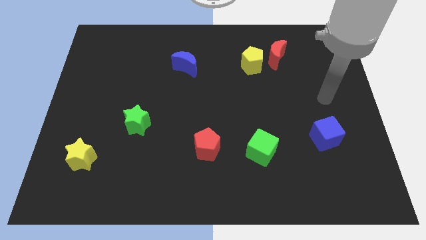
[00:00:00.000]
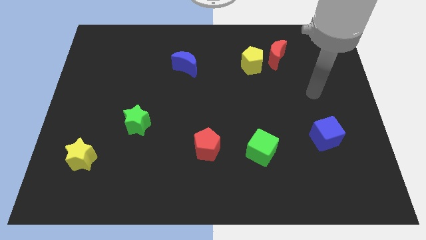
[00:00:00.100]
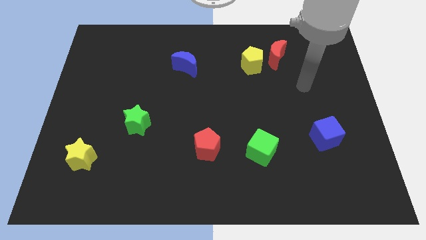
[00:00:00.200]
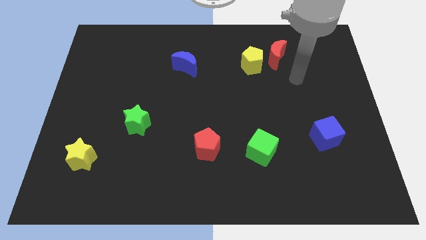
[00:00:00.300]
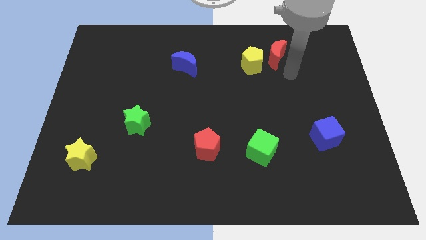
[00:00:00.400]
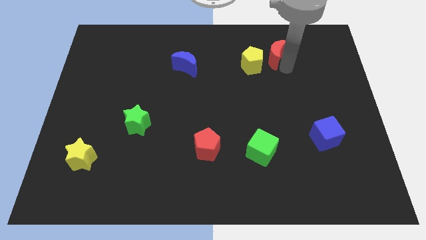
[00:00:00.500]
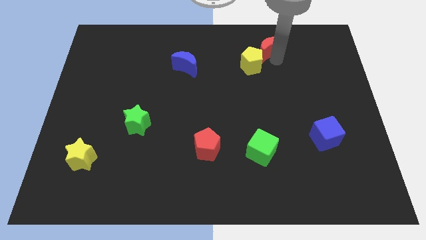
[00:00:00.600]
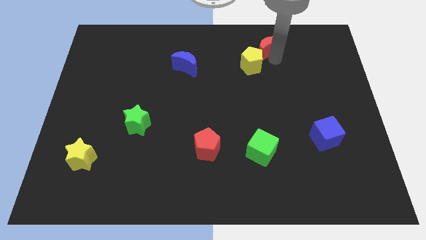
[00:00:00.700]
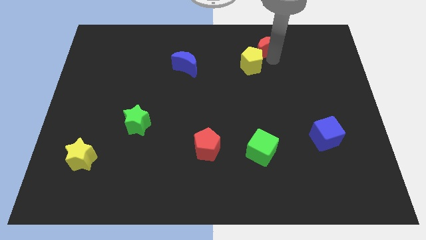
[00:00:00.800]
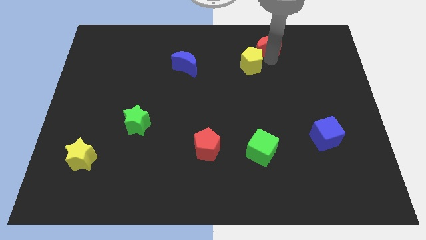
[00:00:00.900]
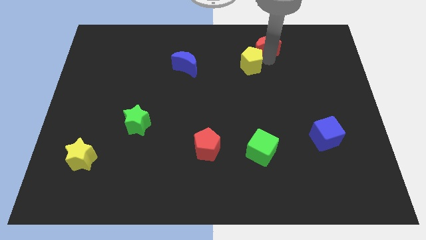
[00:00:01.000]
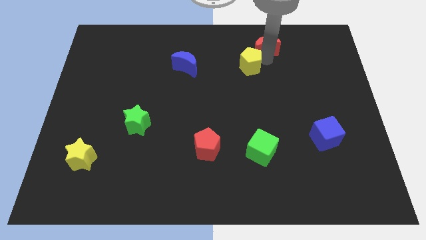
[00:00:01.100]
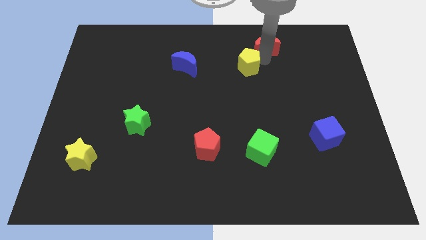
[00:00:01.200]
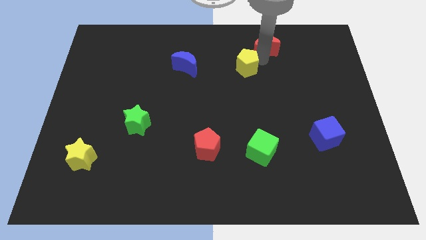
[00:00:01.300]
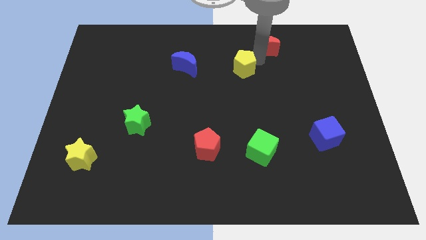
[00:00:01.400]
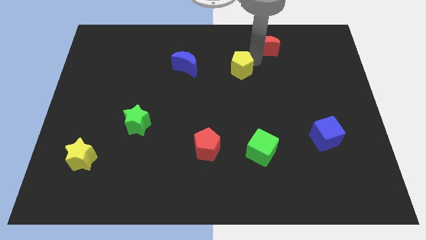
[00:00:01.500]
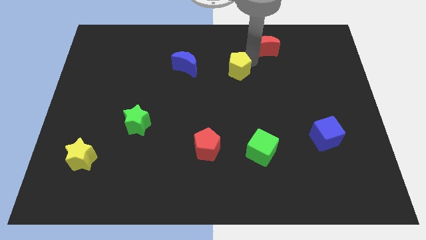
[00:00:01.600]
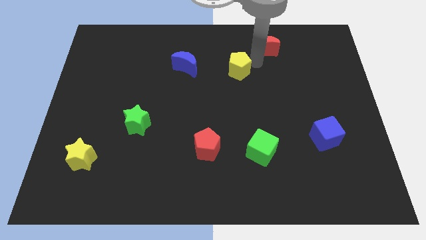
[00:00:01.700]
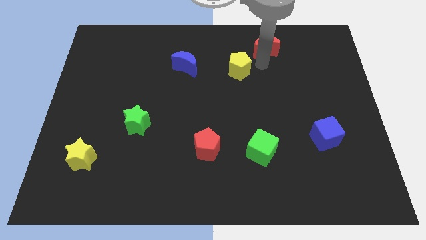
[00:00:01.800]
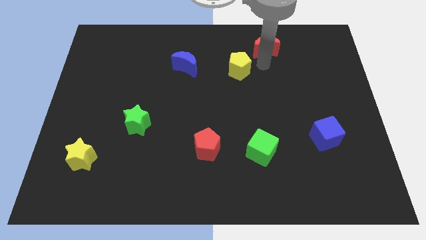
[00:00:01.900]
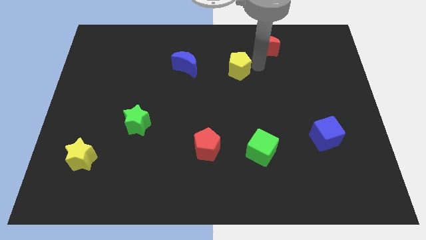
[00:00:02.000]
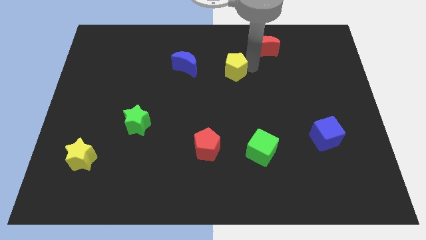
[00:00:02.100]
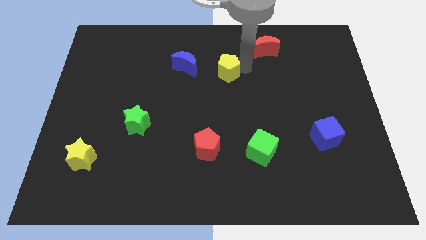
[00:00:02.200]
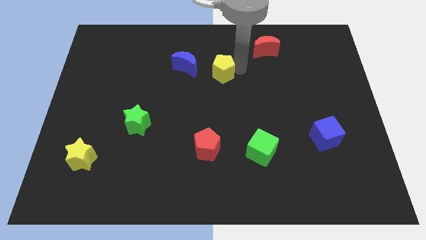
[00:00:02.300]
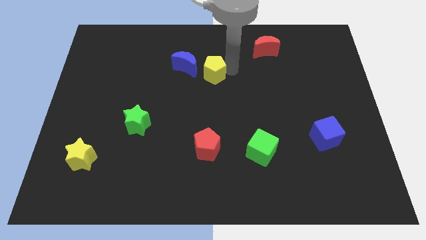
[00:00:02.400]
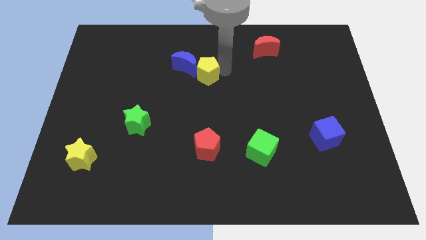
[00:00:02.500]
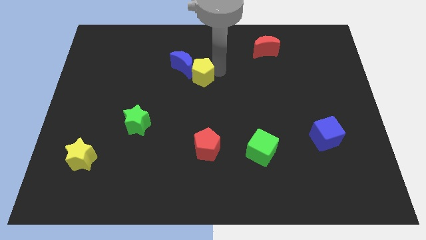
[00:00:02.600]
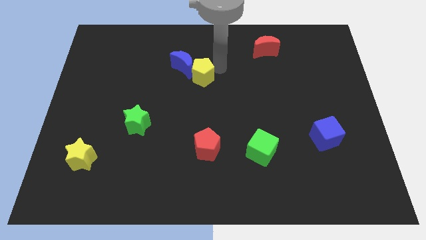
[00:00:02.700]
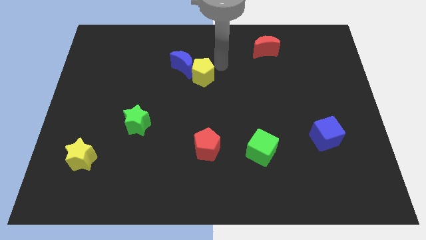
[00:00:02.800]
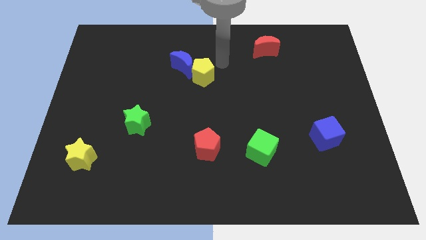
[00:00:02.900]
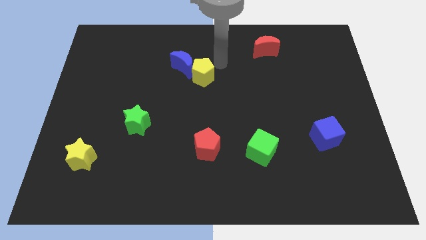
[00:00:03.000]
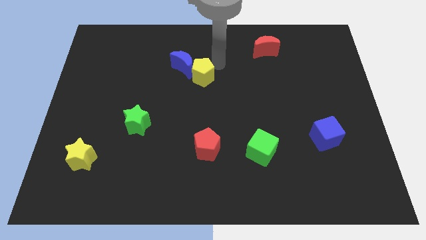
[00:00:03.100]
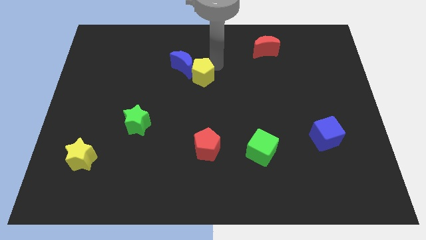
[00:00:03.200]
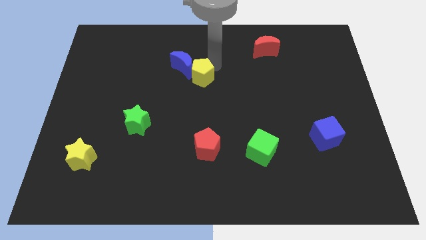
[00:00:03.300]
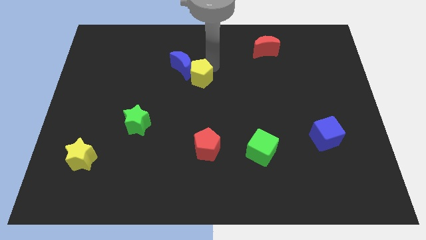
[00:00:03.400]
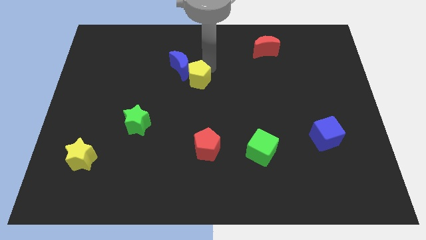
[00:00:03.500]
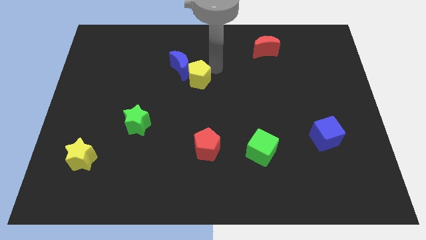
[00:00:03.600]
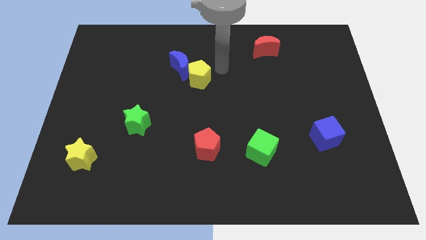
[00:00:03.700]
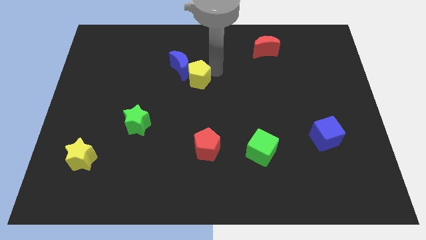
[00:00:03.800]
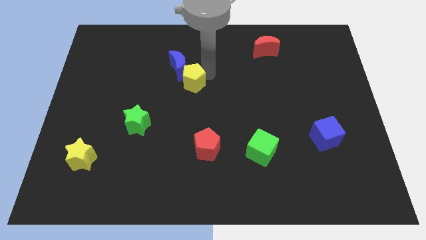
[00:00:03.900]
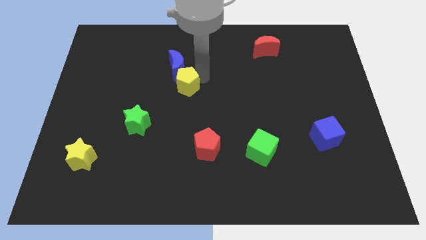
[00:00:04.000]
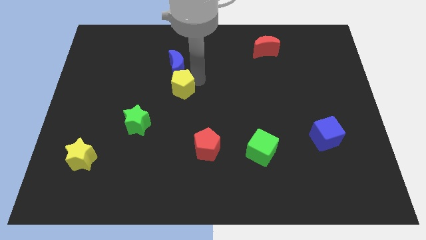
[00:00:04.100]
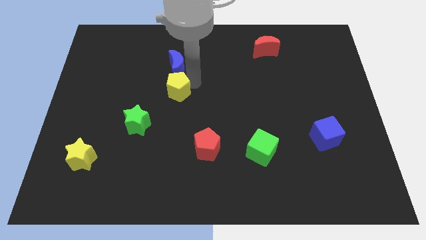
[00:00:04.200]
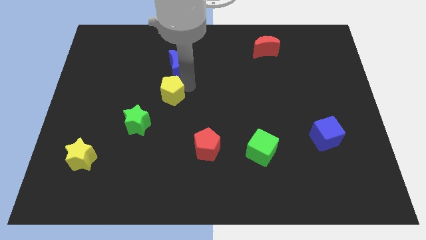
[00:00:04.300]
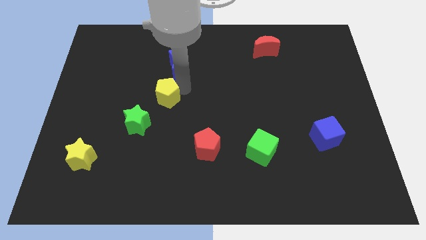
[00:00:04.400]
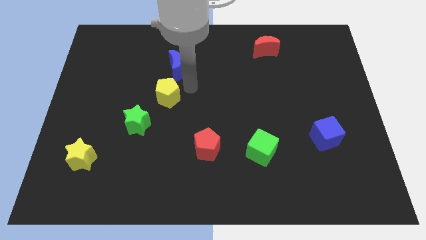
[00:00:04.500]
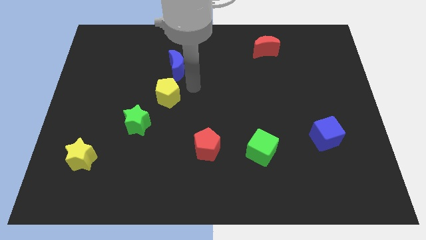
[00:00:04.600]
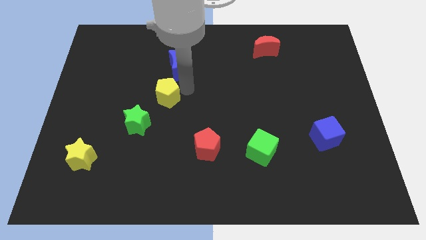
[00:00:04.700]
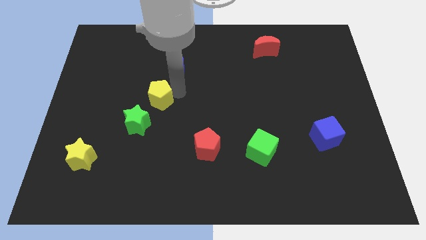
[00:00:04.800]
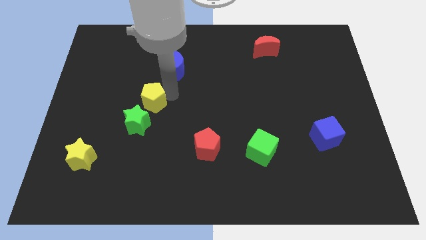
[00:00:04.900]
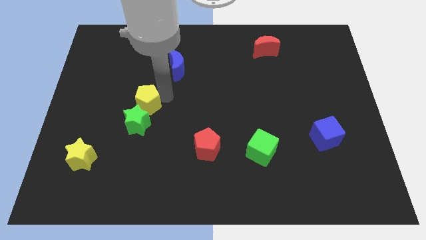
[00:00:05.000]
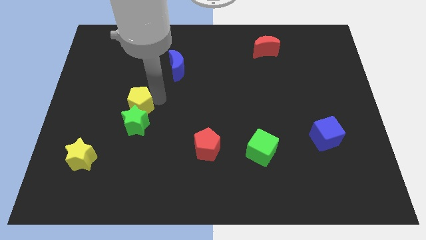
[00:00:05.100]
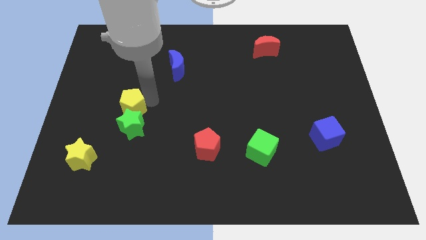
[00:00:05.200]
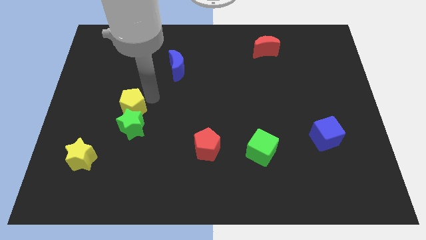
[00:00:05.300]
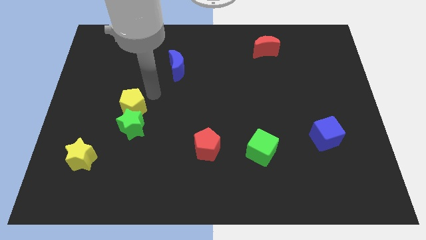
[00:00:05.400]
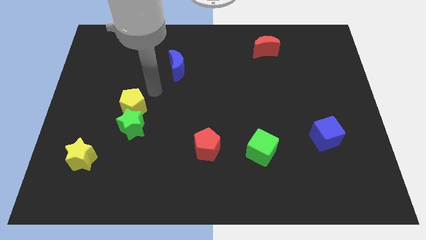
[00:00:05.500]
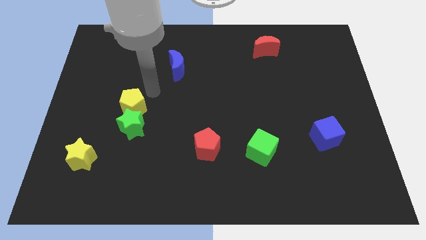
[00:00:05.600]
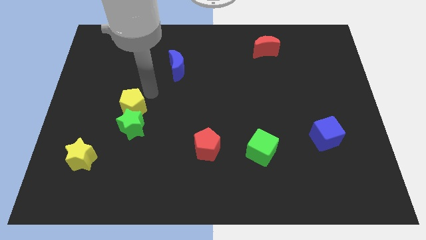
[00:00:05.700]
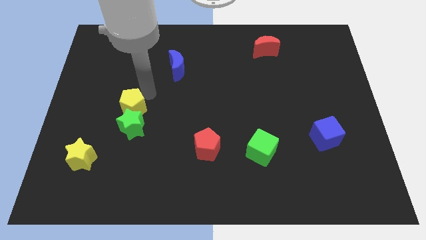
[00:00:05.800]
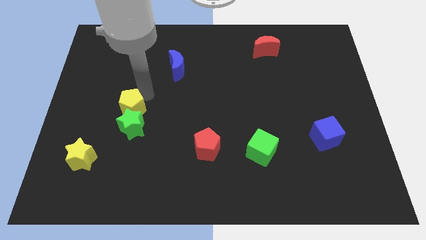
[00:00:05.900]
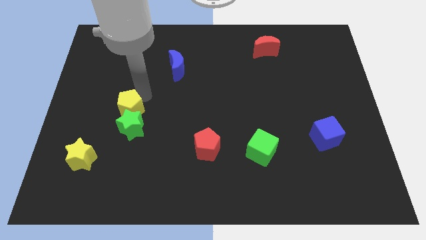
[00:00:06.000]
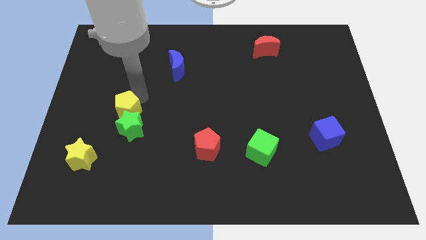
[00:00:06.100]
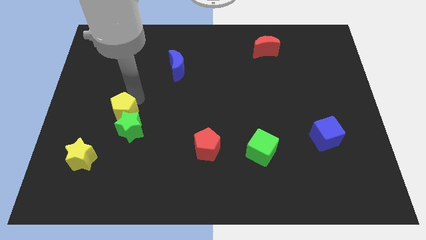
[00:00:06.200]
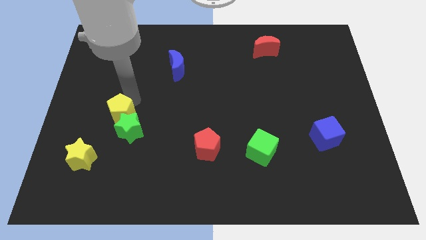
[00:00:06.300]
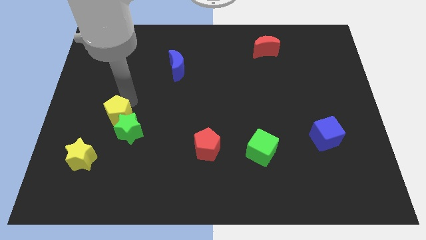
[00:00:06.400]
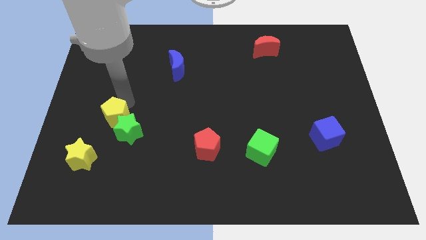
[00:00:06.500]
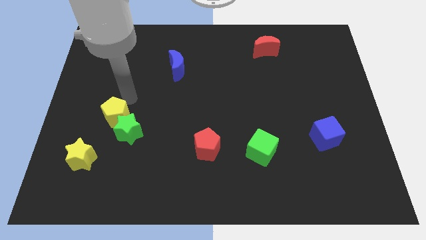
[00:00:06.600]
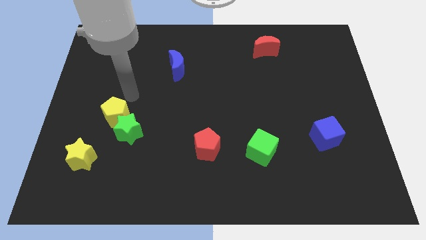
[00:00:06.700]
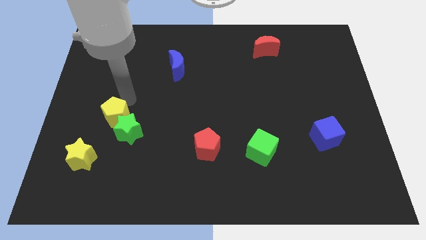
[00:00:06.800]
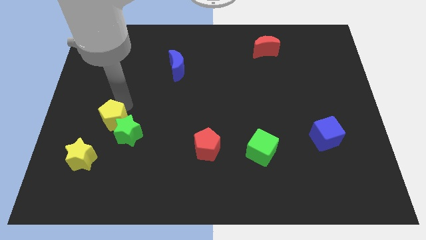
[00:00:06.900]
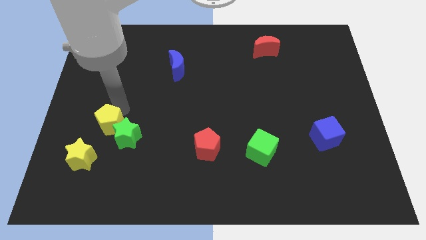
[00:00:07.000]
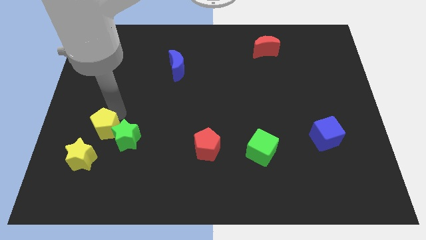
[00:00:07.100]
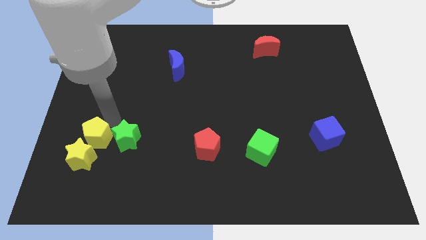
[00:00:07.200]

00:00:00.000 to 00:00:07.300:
move the yellow pentagon close to the yellow star

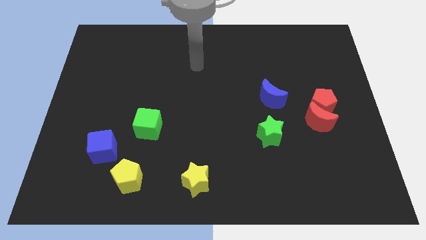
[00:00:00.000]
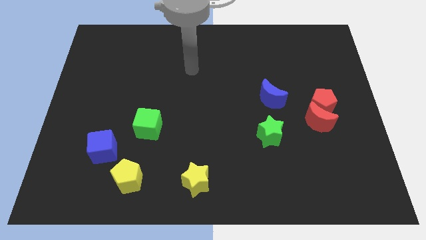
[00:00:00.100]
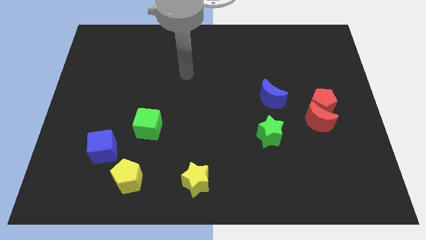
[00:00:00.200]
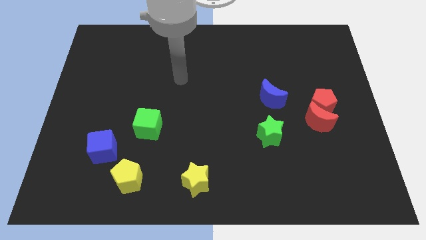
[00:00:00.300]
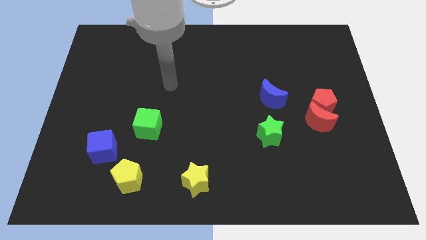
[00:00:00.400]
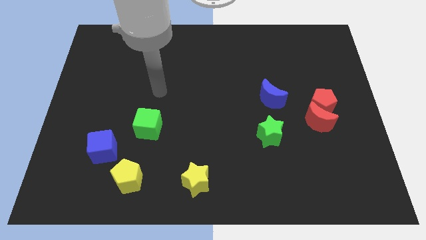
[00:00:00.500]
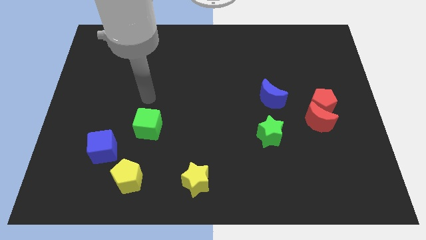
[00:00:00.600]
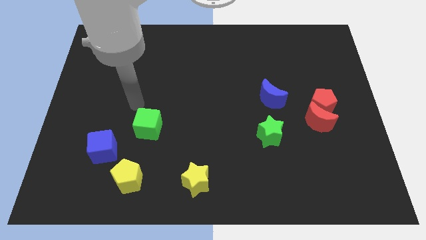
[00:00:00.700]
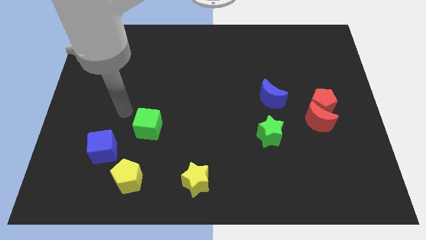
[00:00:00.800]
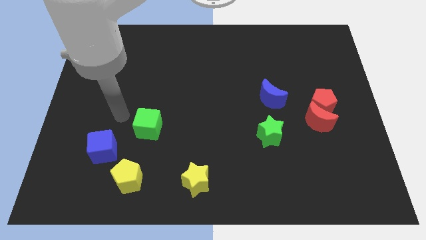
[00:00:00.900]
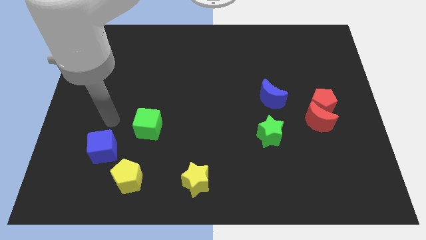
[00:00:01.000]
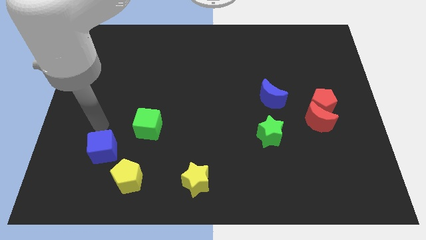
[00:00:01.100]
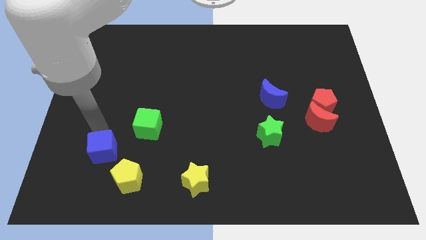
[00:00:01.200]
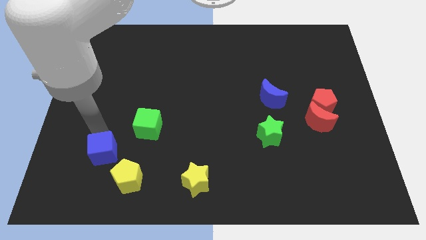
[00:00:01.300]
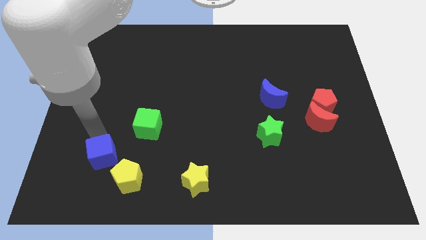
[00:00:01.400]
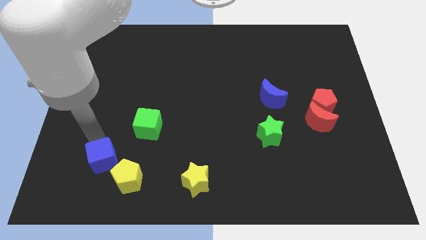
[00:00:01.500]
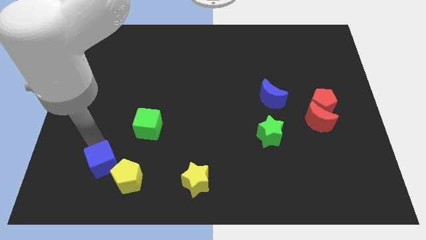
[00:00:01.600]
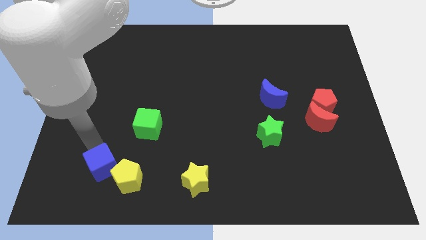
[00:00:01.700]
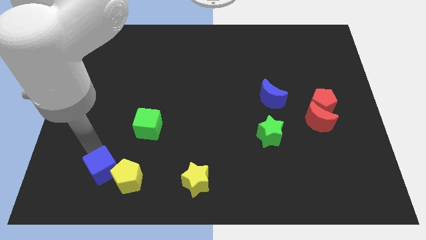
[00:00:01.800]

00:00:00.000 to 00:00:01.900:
slide the blue cube next to the yellow pentagon
